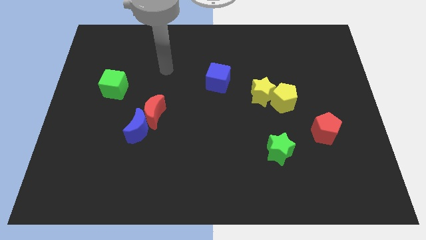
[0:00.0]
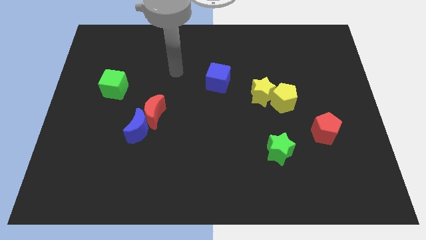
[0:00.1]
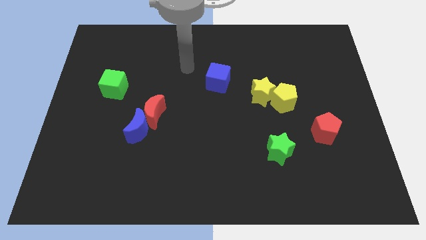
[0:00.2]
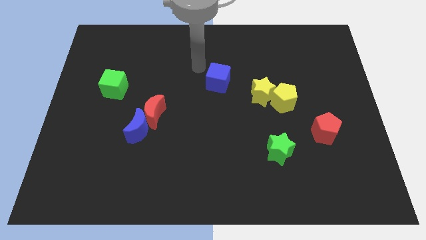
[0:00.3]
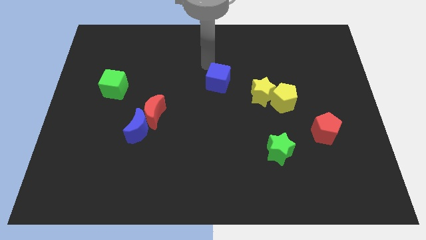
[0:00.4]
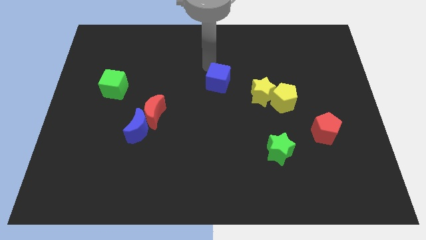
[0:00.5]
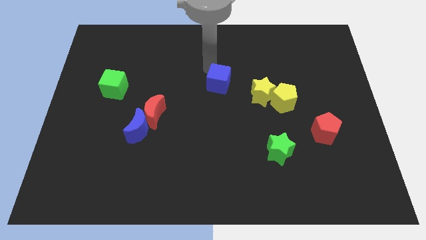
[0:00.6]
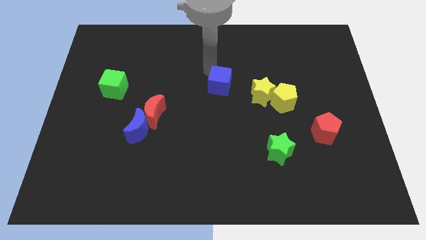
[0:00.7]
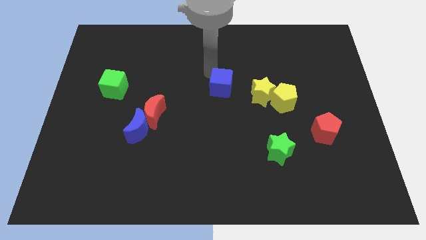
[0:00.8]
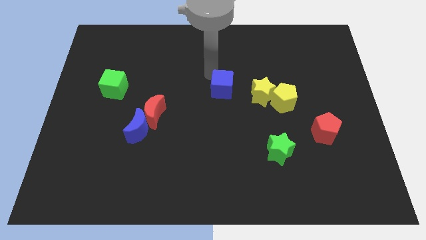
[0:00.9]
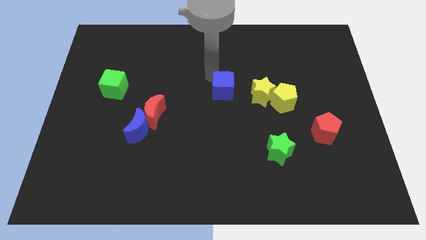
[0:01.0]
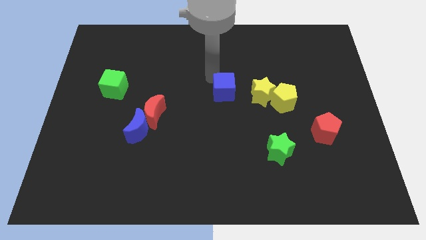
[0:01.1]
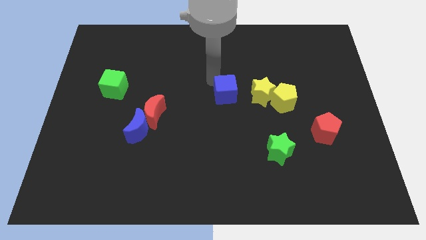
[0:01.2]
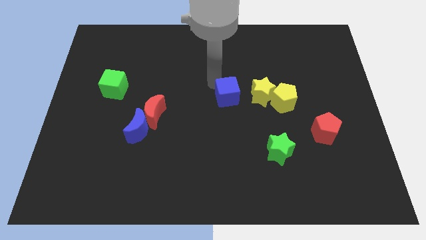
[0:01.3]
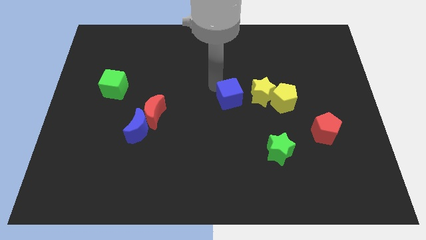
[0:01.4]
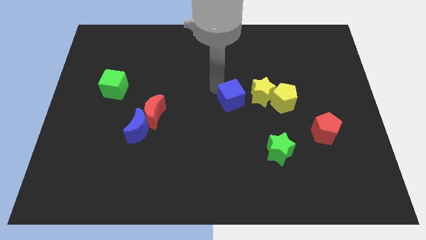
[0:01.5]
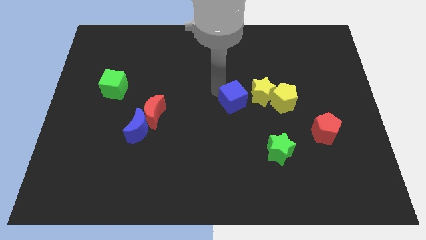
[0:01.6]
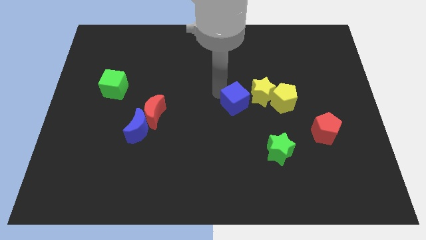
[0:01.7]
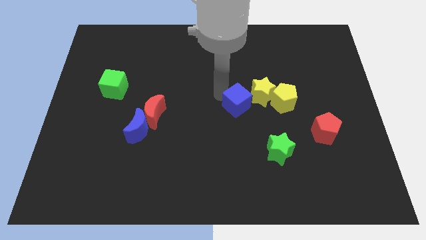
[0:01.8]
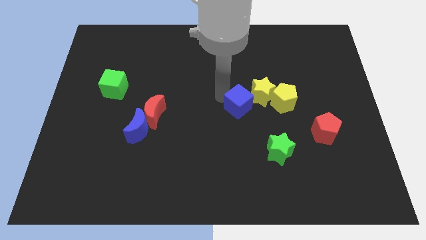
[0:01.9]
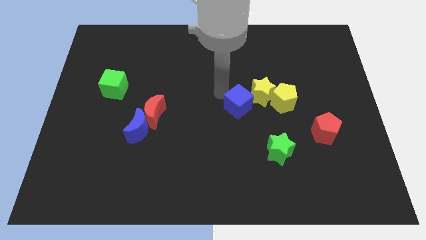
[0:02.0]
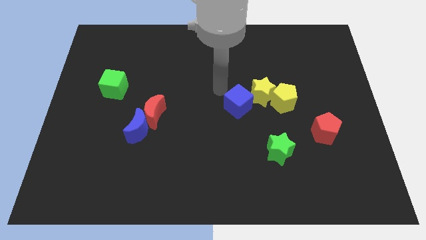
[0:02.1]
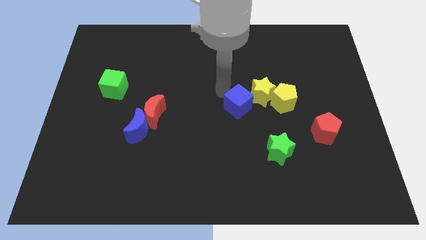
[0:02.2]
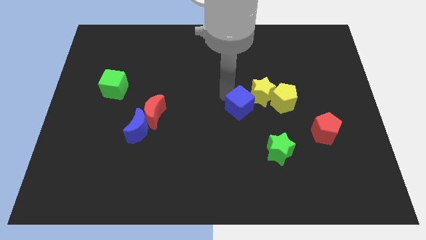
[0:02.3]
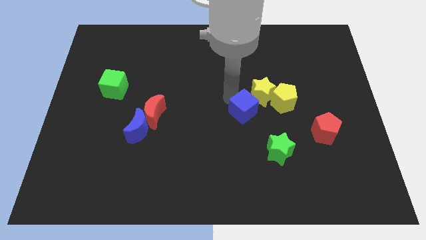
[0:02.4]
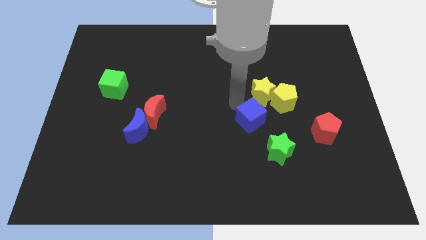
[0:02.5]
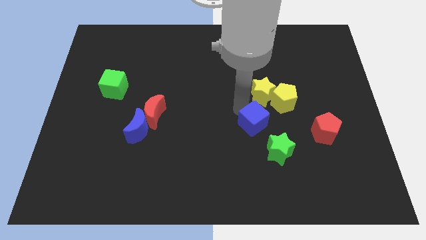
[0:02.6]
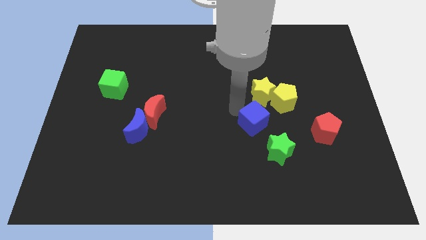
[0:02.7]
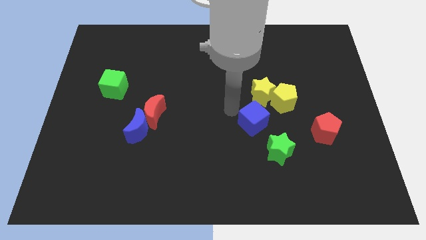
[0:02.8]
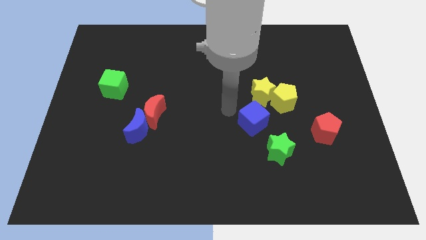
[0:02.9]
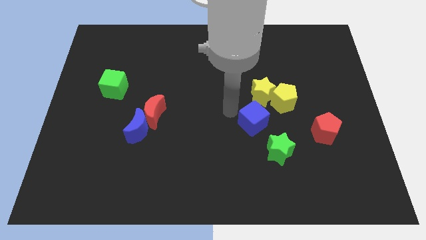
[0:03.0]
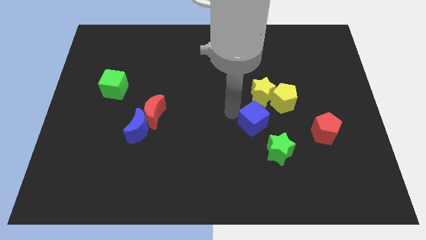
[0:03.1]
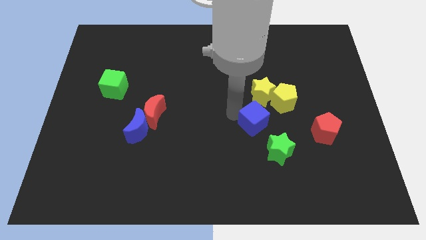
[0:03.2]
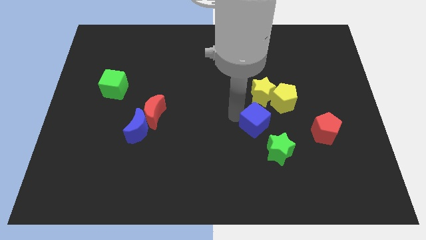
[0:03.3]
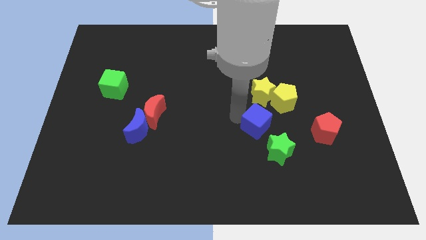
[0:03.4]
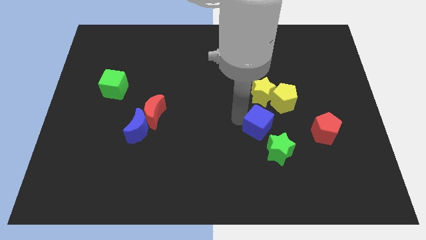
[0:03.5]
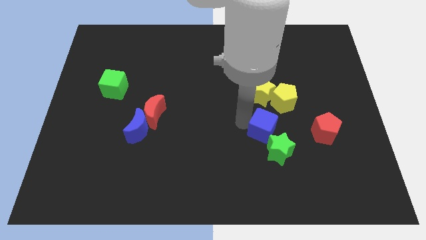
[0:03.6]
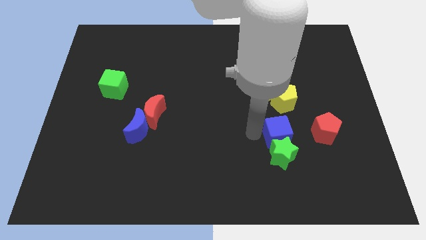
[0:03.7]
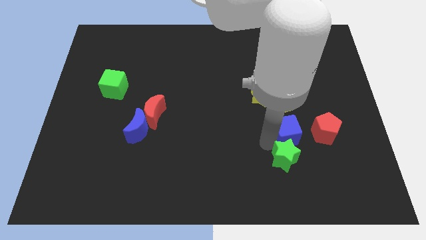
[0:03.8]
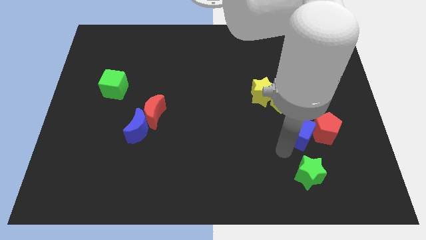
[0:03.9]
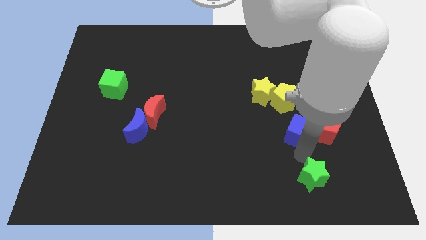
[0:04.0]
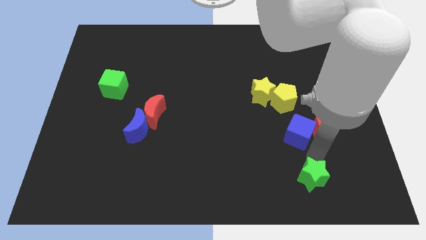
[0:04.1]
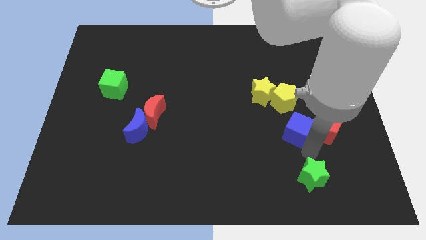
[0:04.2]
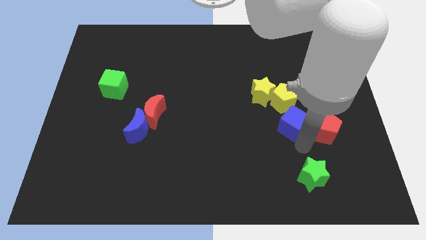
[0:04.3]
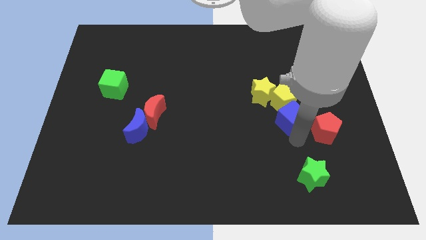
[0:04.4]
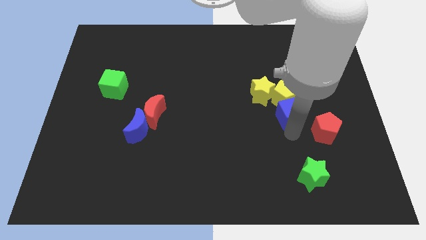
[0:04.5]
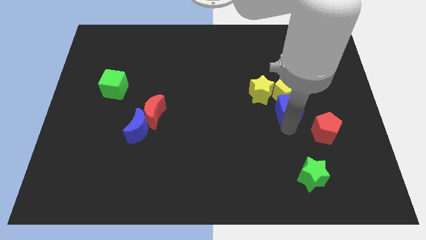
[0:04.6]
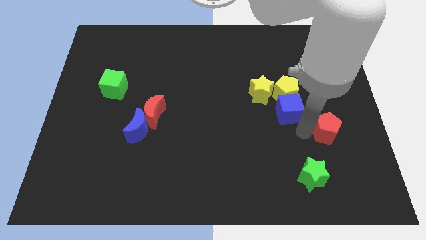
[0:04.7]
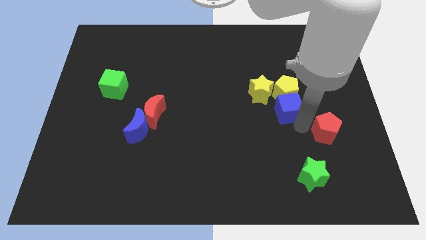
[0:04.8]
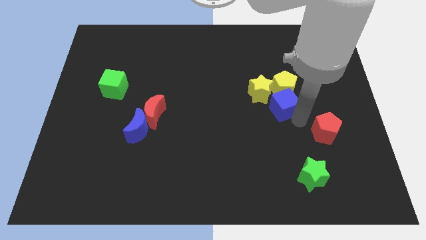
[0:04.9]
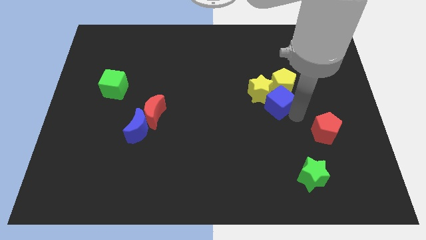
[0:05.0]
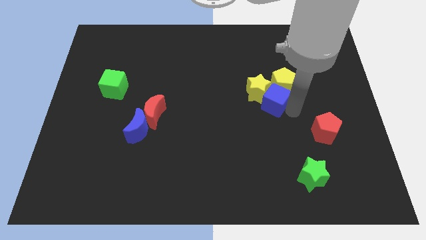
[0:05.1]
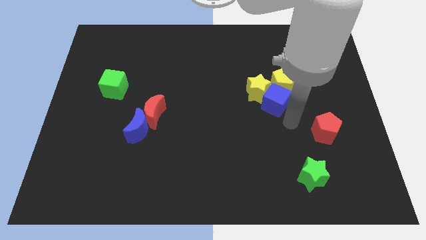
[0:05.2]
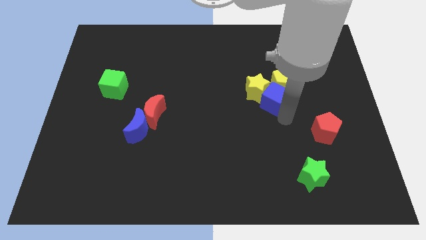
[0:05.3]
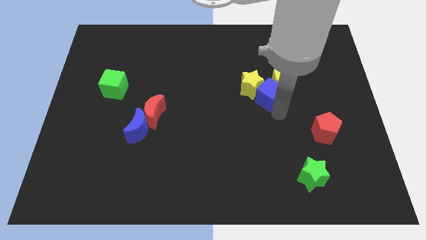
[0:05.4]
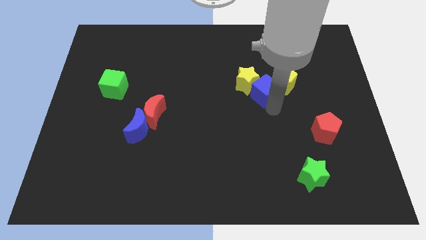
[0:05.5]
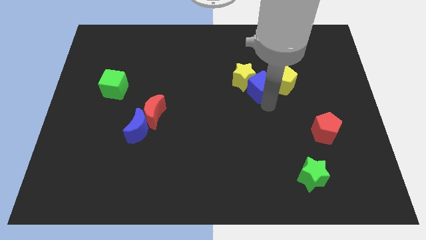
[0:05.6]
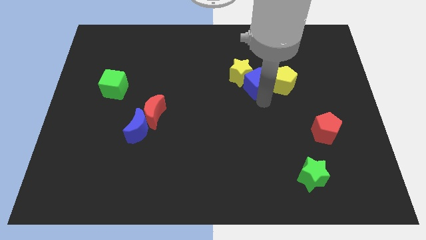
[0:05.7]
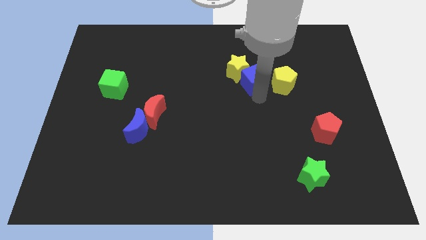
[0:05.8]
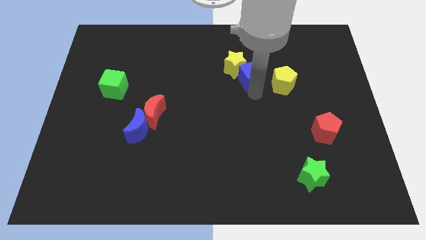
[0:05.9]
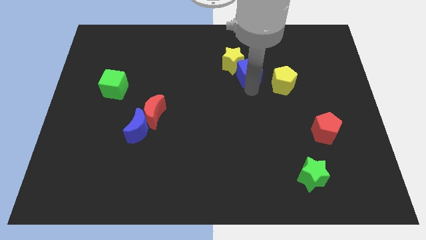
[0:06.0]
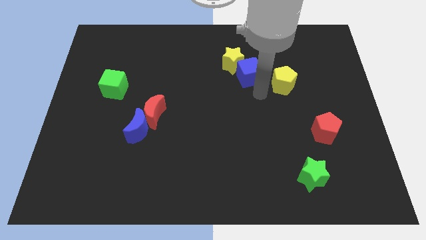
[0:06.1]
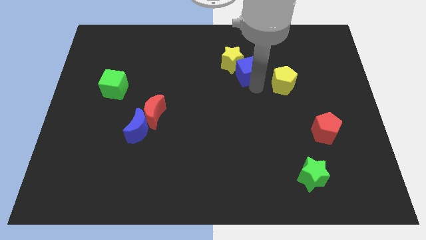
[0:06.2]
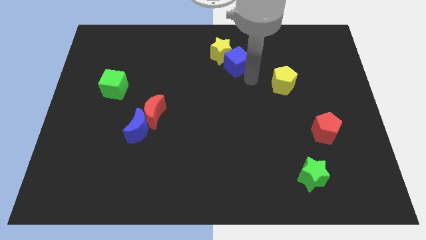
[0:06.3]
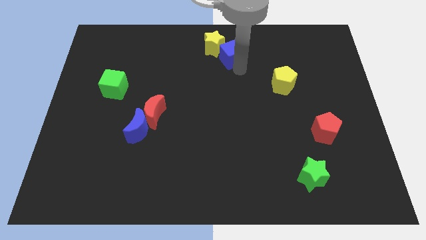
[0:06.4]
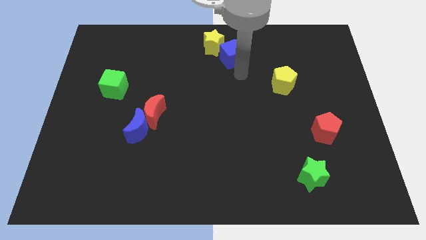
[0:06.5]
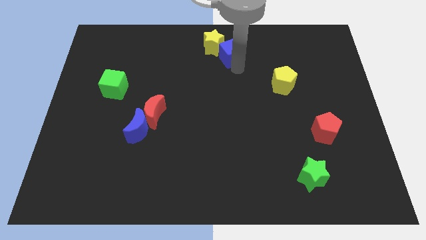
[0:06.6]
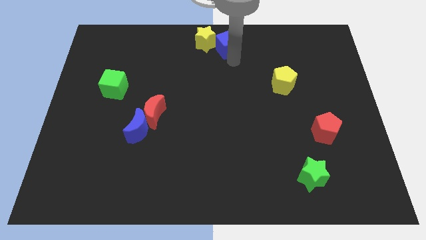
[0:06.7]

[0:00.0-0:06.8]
push the blue cube to the top side
